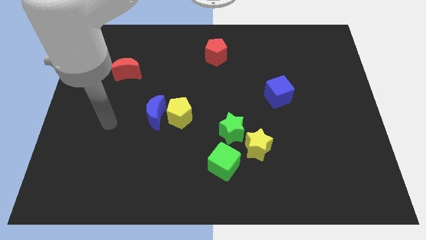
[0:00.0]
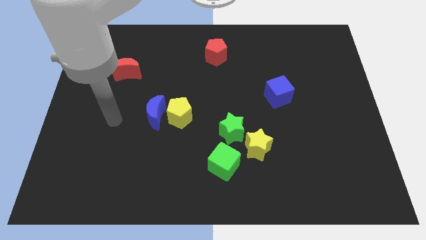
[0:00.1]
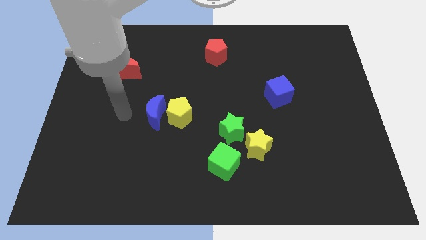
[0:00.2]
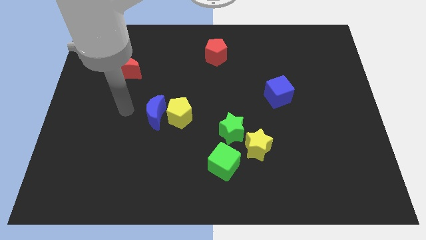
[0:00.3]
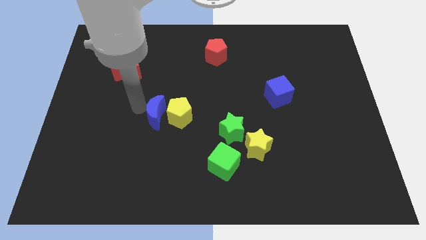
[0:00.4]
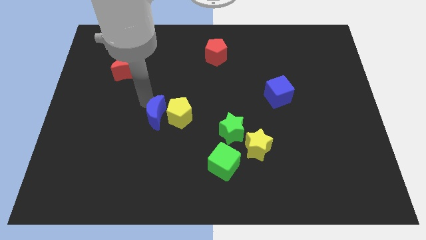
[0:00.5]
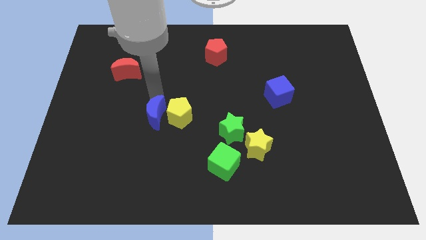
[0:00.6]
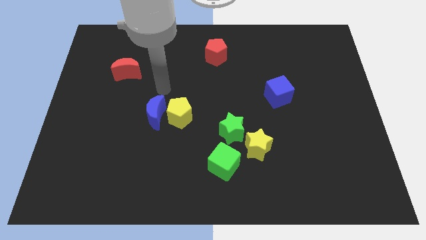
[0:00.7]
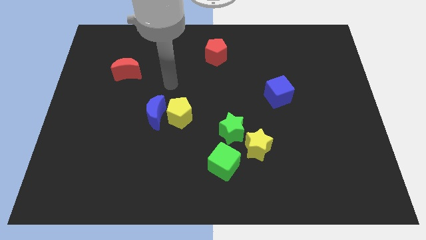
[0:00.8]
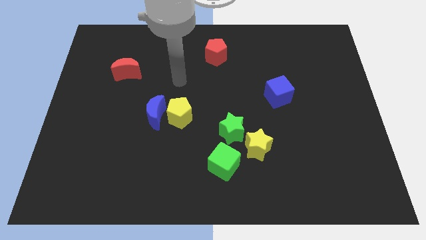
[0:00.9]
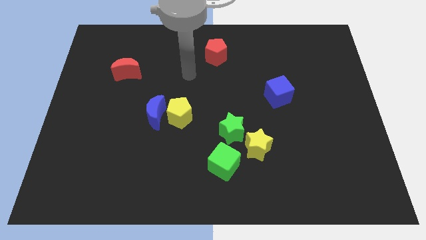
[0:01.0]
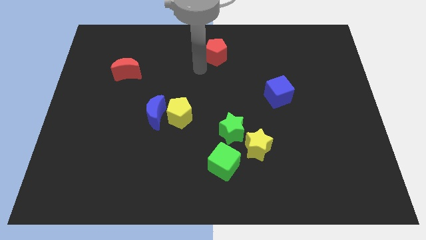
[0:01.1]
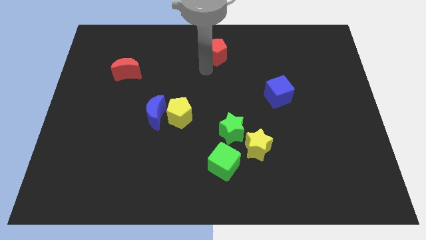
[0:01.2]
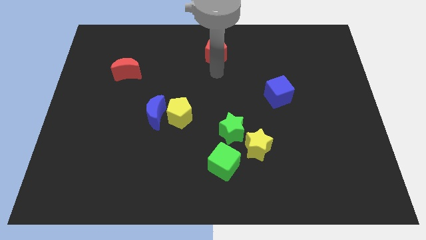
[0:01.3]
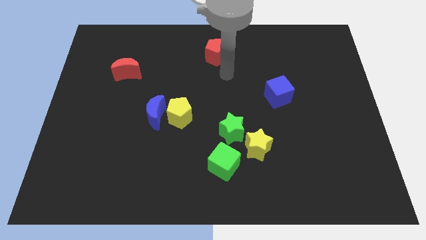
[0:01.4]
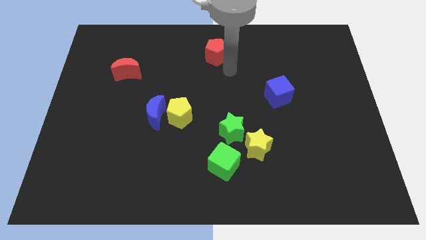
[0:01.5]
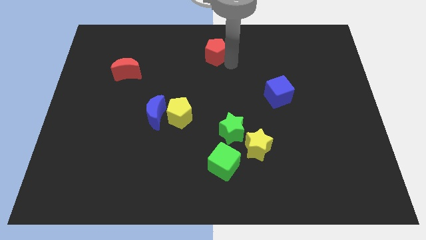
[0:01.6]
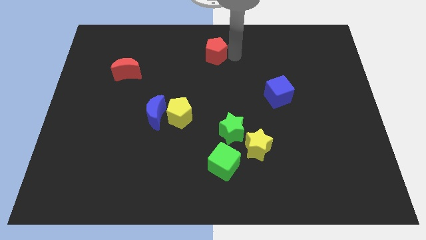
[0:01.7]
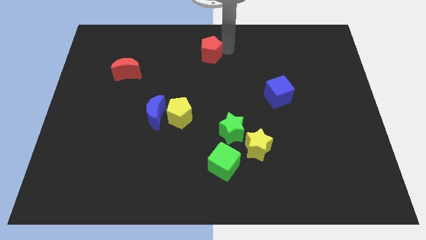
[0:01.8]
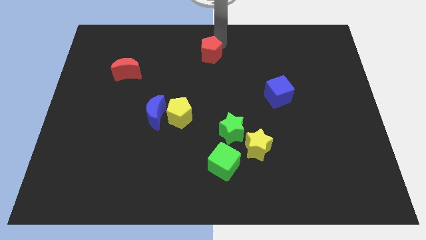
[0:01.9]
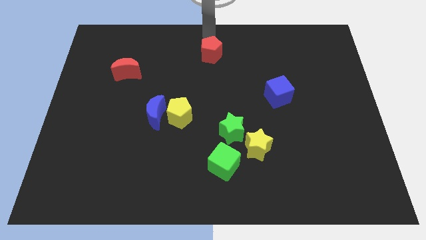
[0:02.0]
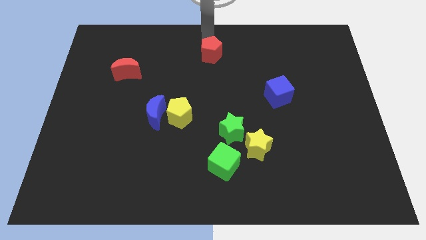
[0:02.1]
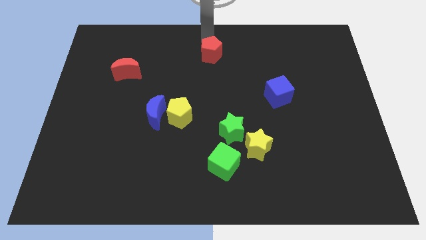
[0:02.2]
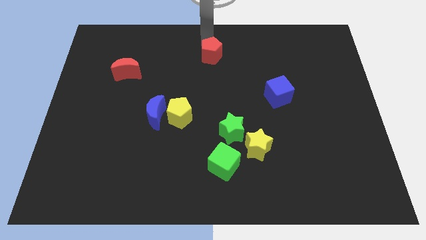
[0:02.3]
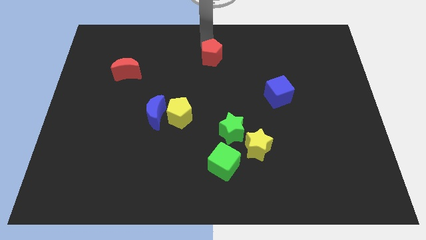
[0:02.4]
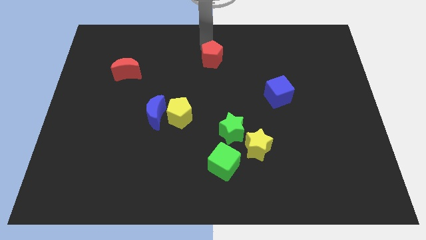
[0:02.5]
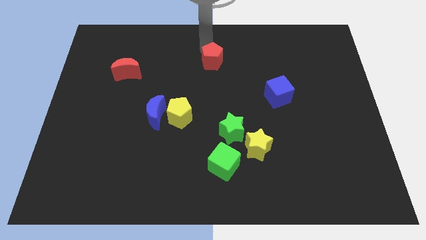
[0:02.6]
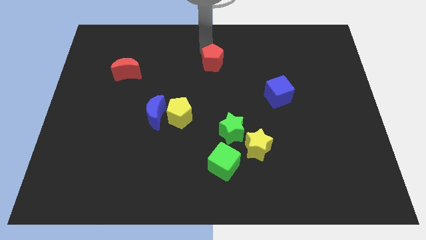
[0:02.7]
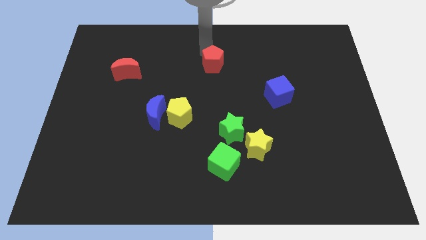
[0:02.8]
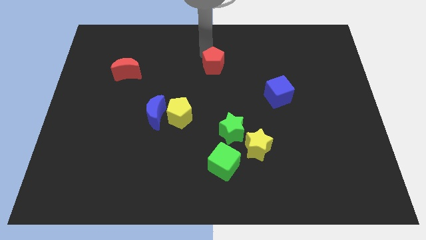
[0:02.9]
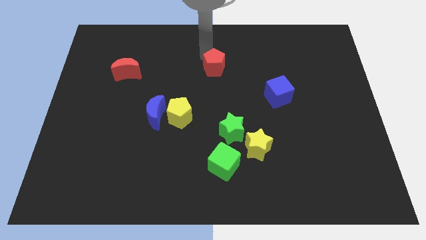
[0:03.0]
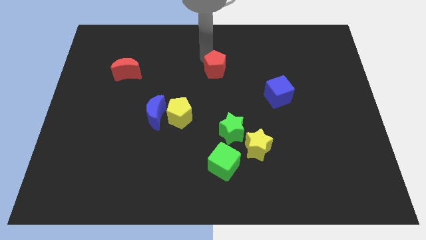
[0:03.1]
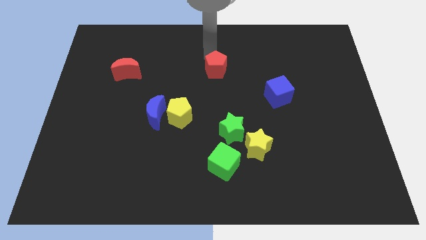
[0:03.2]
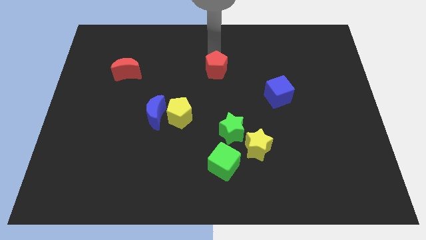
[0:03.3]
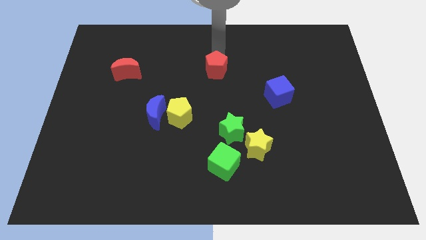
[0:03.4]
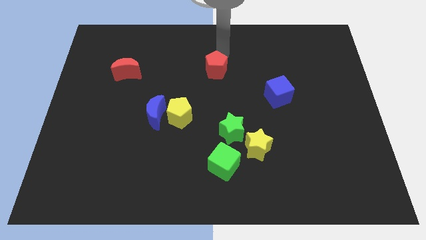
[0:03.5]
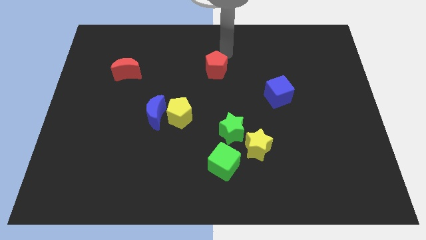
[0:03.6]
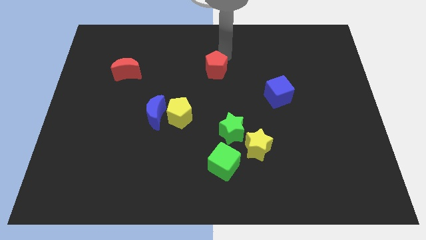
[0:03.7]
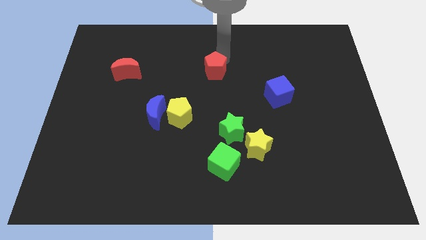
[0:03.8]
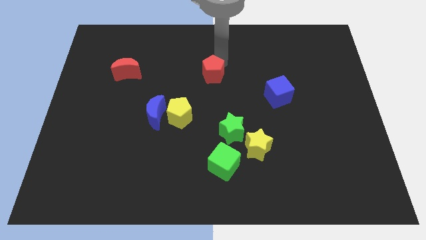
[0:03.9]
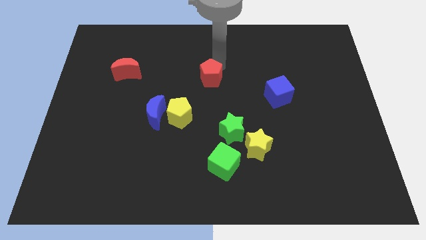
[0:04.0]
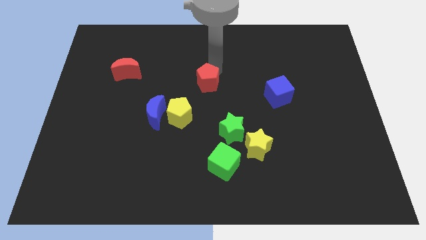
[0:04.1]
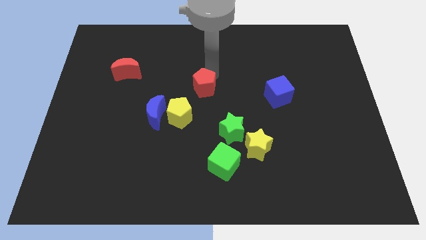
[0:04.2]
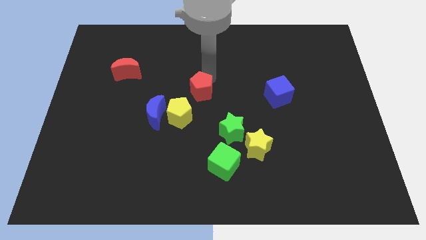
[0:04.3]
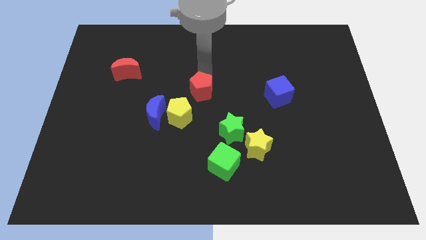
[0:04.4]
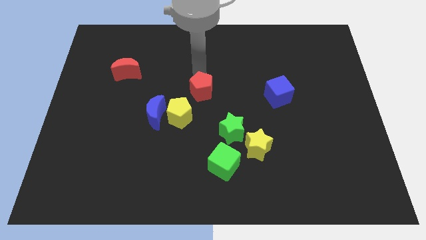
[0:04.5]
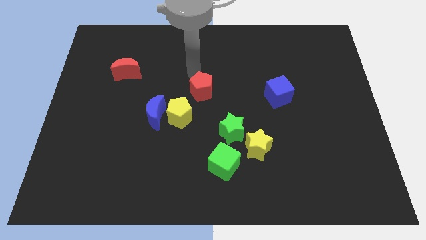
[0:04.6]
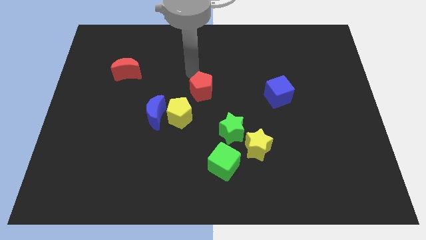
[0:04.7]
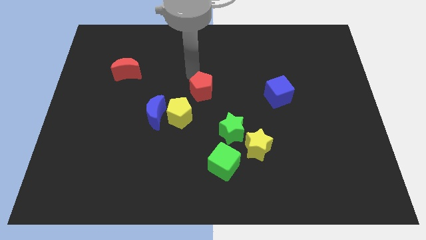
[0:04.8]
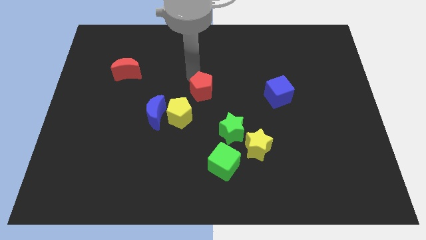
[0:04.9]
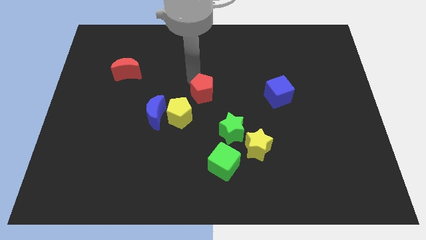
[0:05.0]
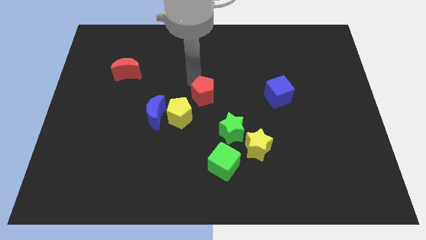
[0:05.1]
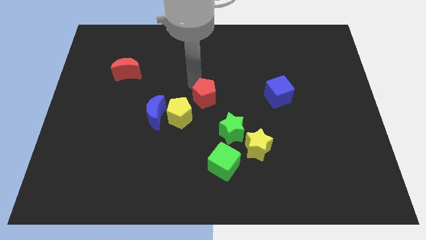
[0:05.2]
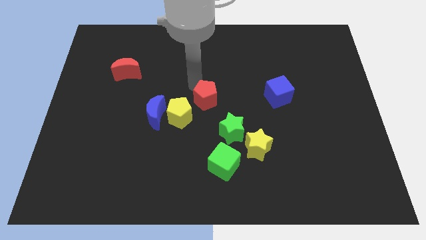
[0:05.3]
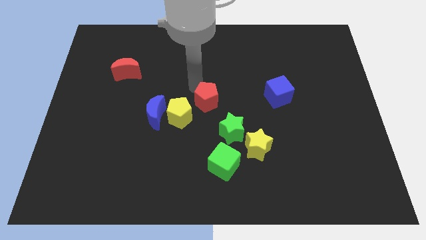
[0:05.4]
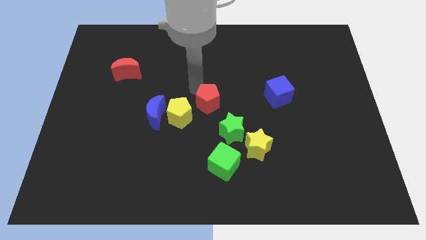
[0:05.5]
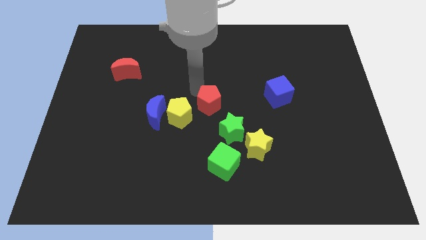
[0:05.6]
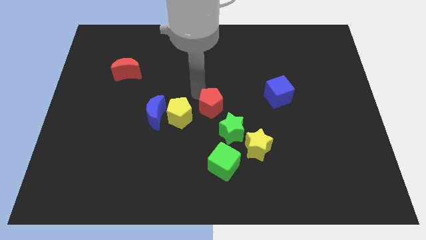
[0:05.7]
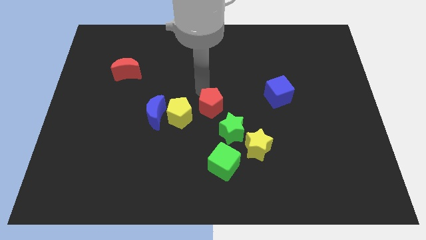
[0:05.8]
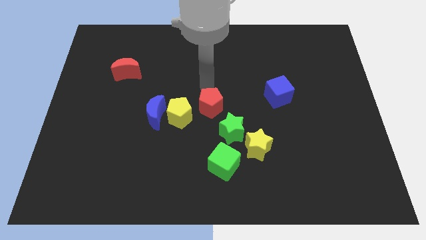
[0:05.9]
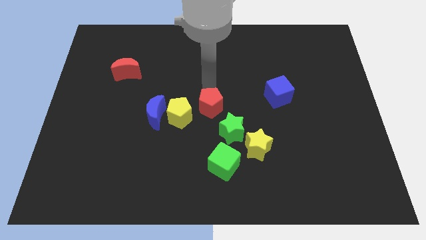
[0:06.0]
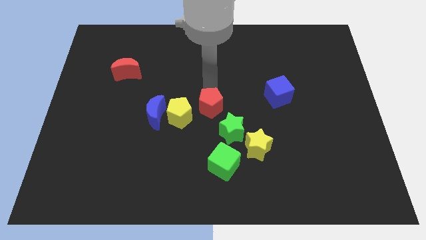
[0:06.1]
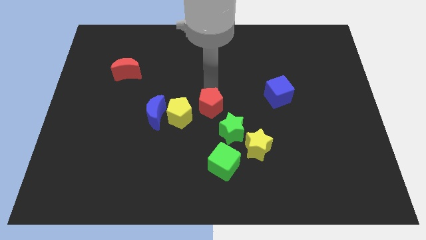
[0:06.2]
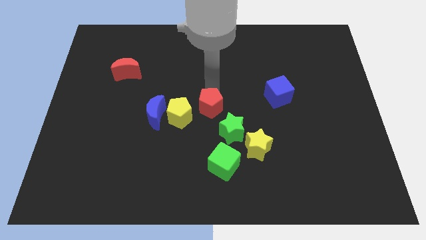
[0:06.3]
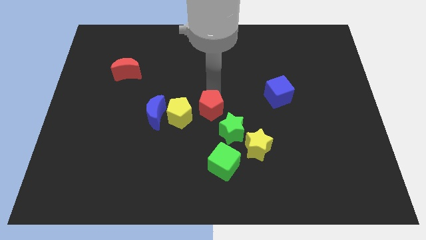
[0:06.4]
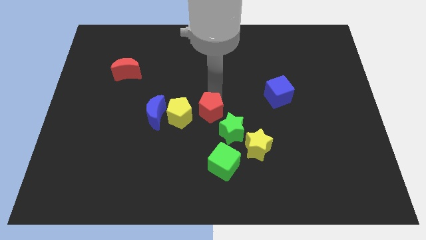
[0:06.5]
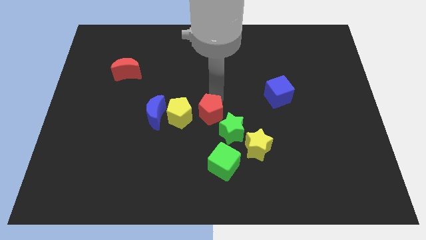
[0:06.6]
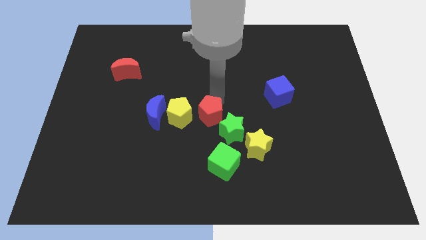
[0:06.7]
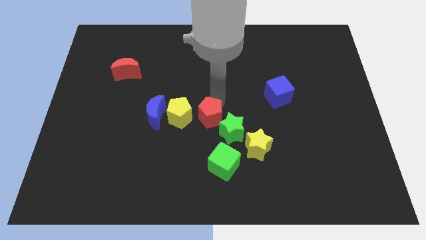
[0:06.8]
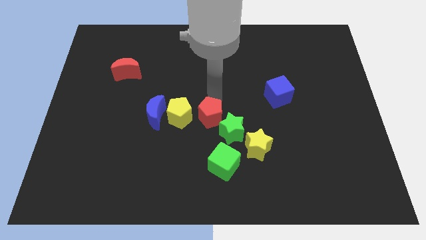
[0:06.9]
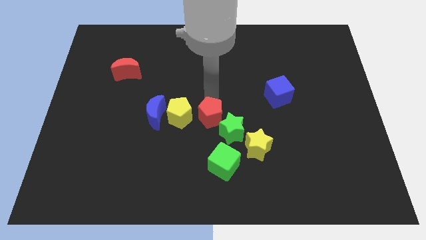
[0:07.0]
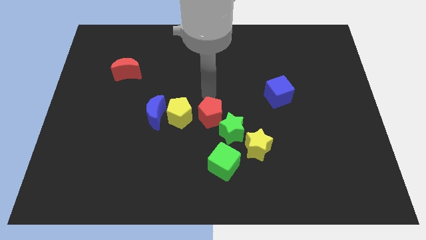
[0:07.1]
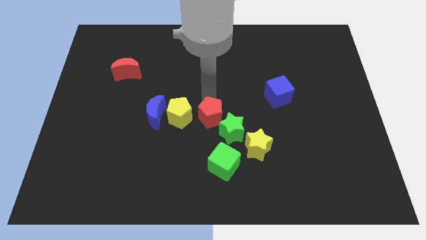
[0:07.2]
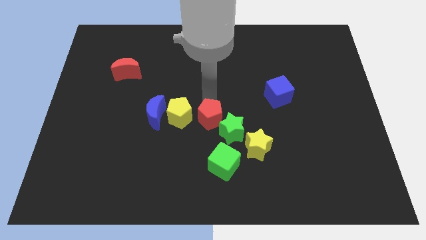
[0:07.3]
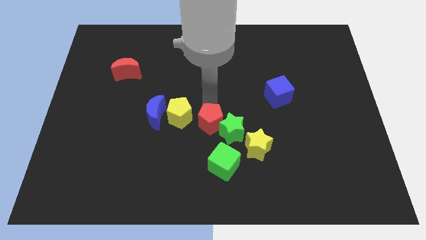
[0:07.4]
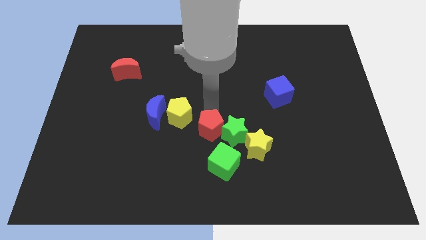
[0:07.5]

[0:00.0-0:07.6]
slide the red pentagon to the left of the yellow star

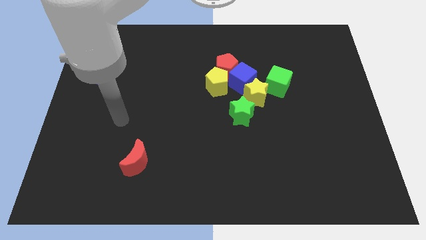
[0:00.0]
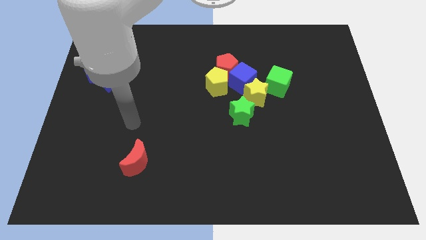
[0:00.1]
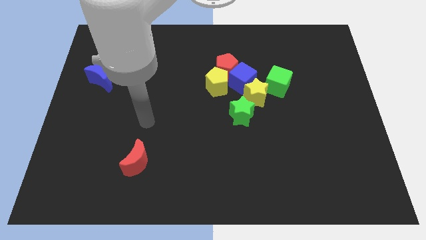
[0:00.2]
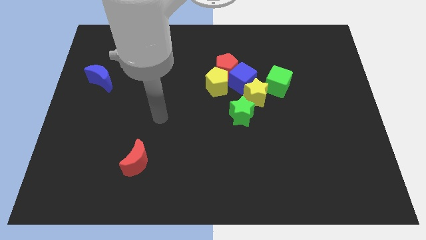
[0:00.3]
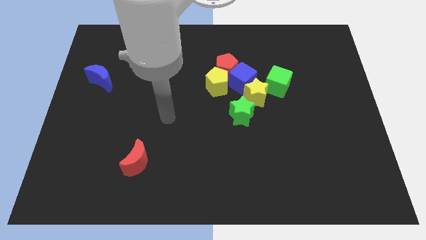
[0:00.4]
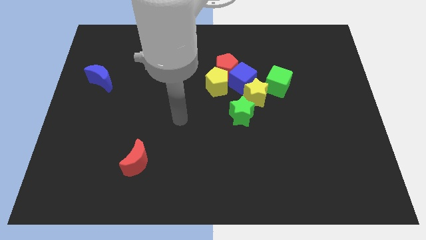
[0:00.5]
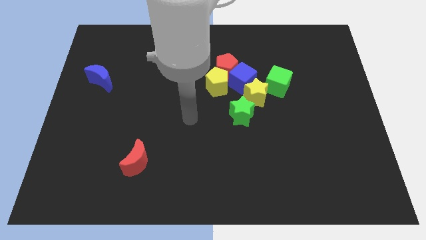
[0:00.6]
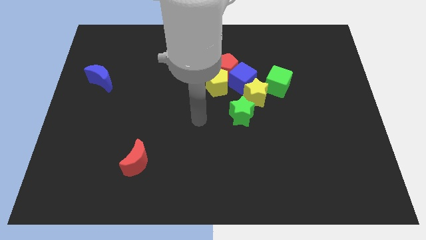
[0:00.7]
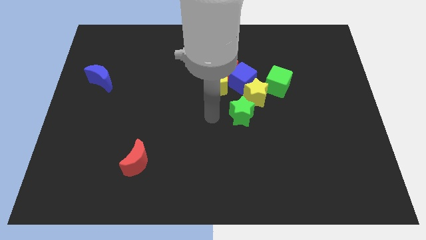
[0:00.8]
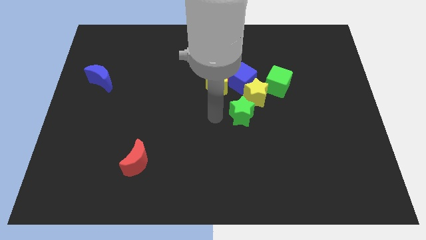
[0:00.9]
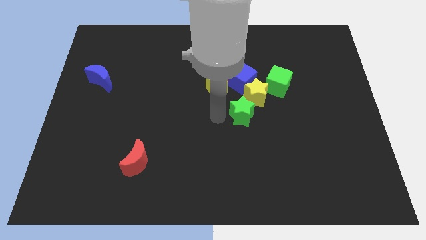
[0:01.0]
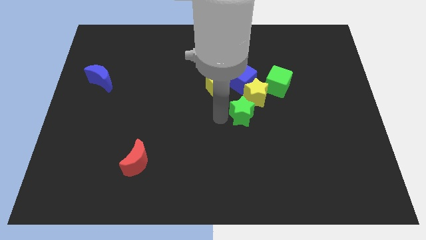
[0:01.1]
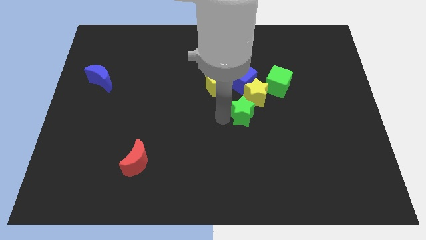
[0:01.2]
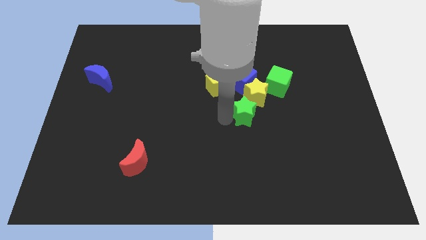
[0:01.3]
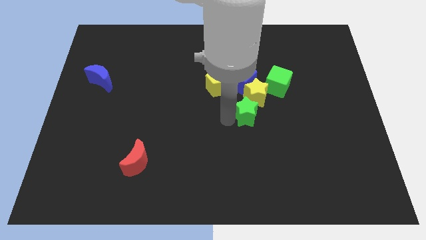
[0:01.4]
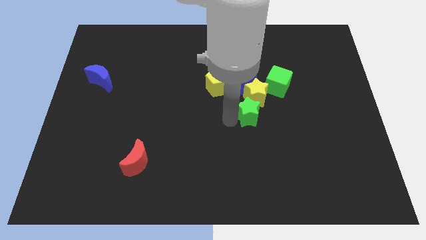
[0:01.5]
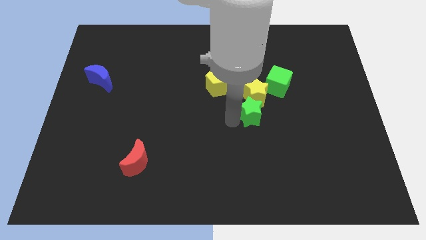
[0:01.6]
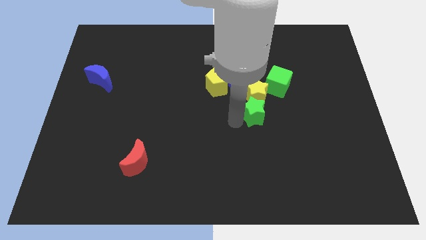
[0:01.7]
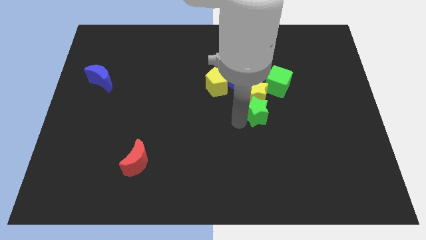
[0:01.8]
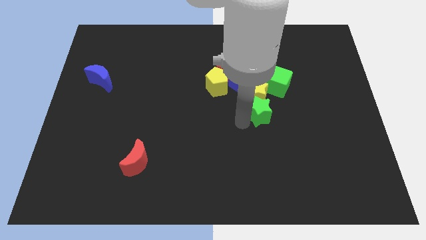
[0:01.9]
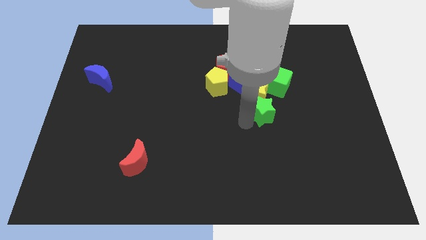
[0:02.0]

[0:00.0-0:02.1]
move the green star to the bottom of the green cube
